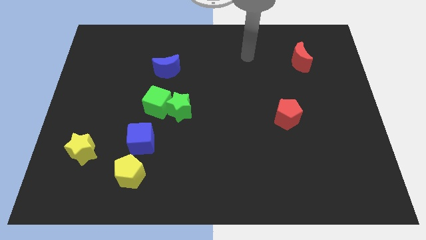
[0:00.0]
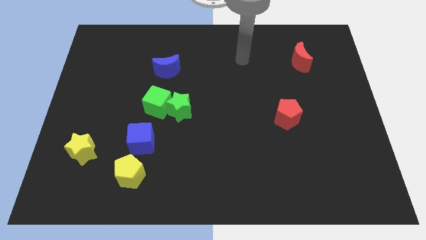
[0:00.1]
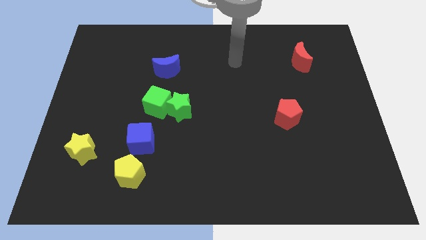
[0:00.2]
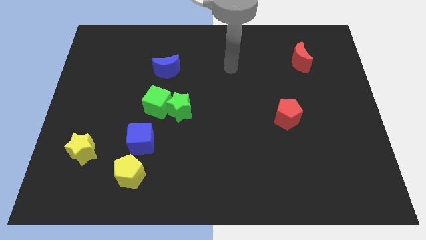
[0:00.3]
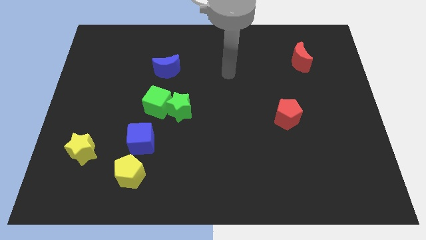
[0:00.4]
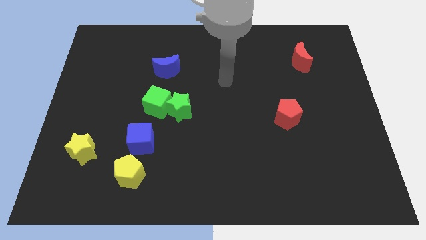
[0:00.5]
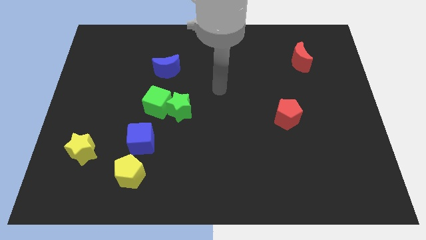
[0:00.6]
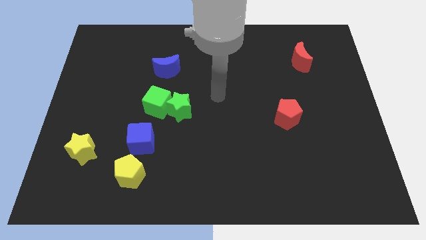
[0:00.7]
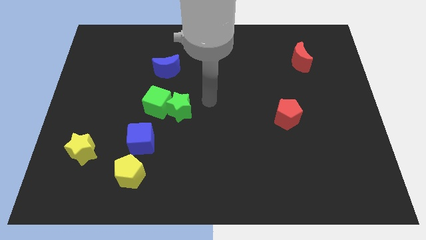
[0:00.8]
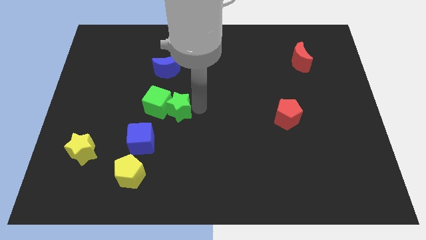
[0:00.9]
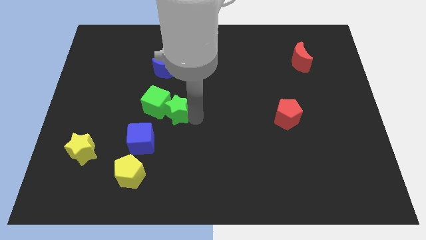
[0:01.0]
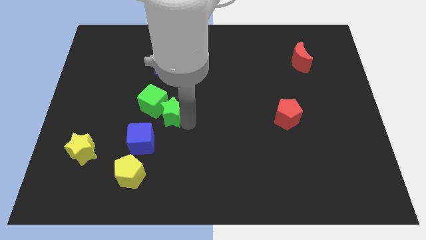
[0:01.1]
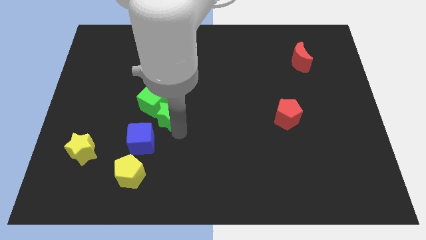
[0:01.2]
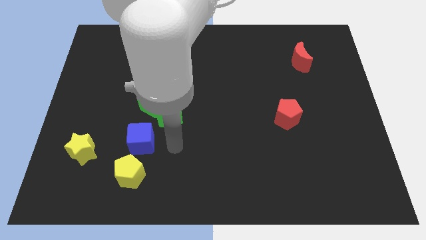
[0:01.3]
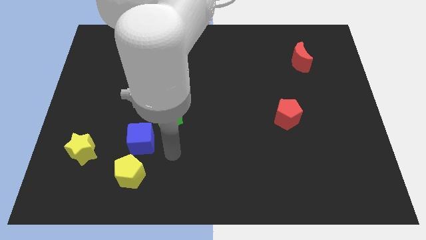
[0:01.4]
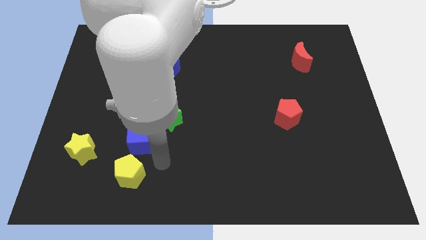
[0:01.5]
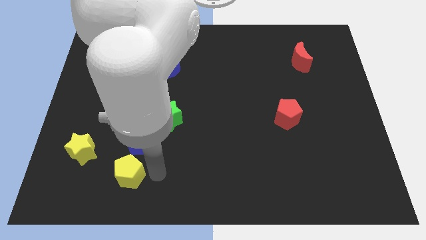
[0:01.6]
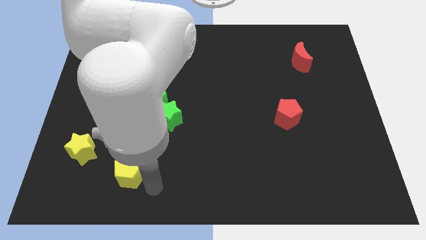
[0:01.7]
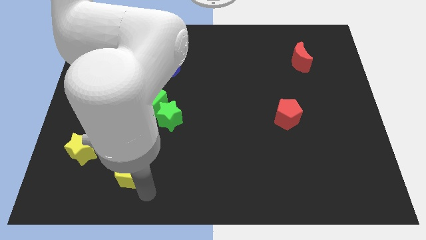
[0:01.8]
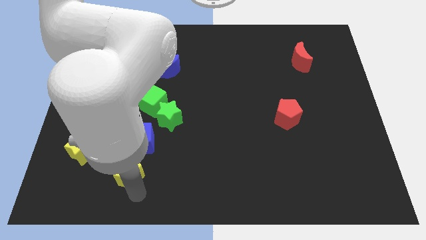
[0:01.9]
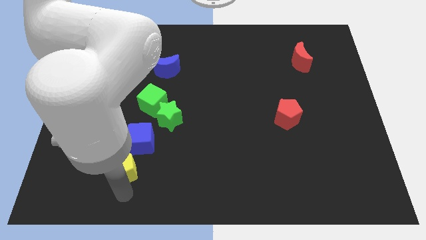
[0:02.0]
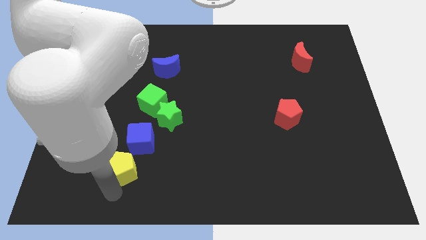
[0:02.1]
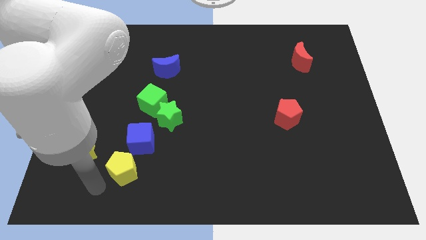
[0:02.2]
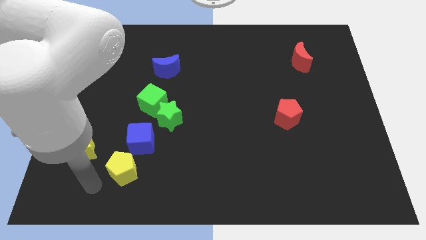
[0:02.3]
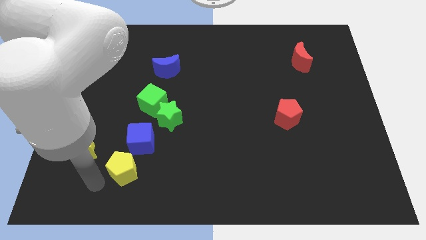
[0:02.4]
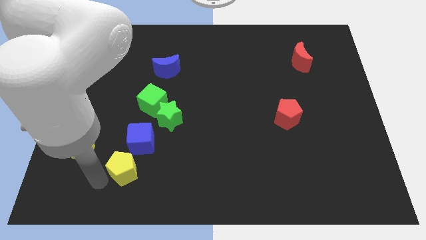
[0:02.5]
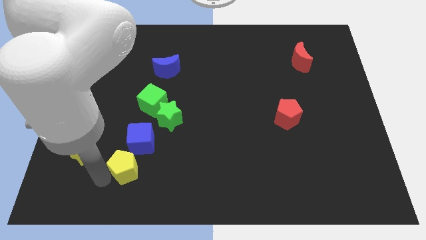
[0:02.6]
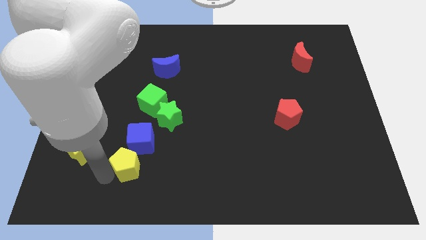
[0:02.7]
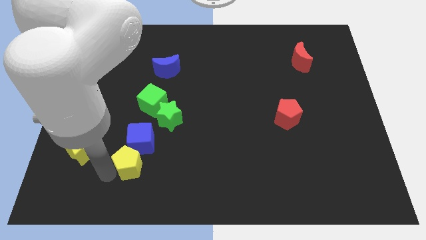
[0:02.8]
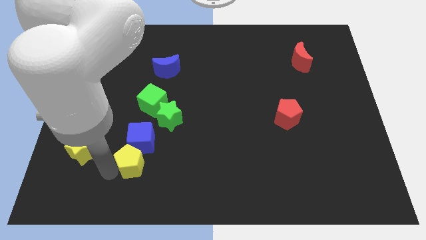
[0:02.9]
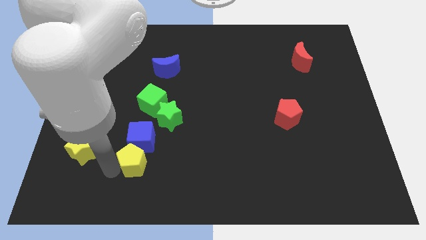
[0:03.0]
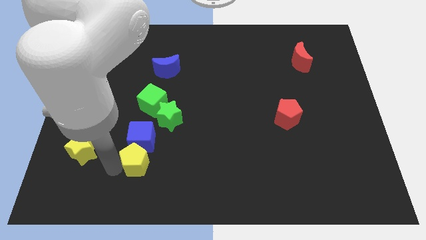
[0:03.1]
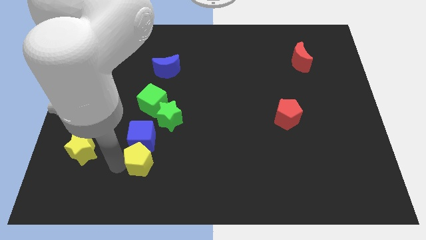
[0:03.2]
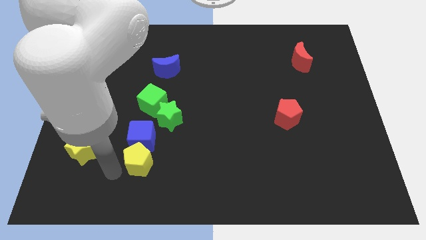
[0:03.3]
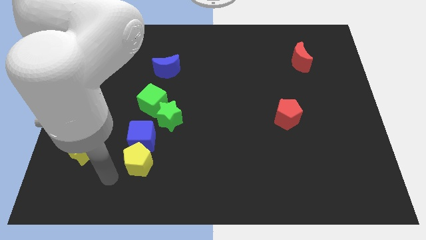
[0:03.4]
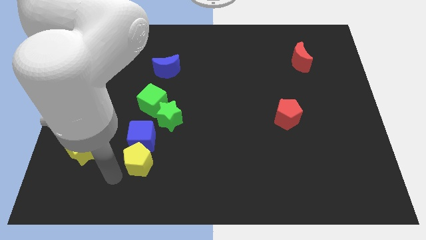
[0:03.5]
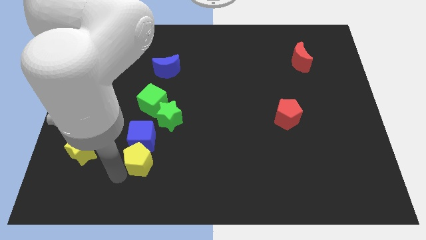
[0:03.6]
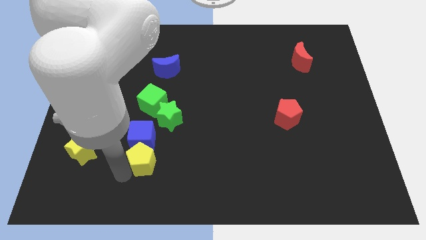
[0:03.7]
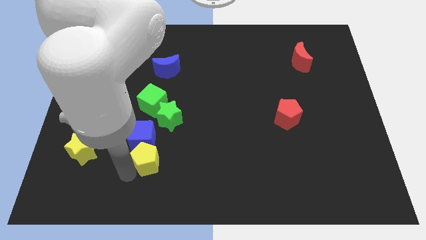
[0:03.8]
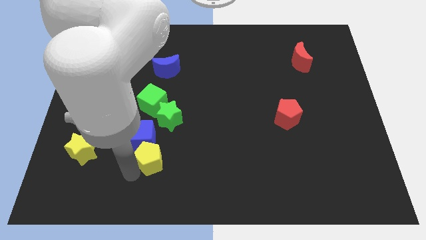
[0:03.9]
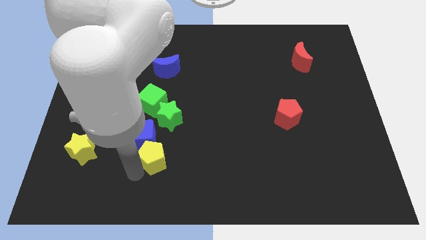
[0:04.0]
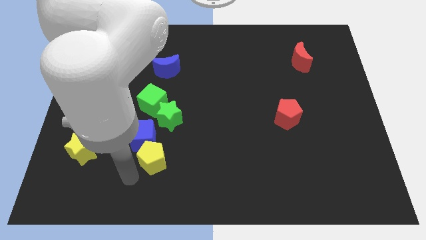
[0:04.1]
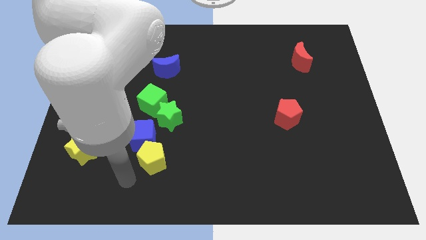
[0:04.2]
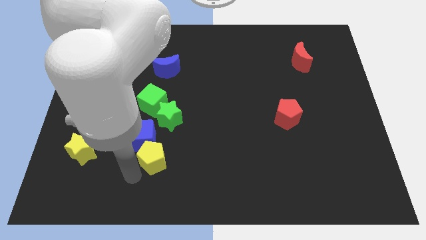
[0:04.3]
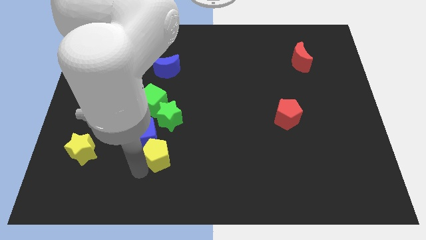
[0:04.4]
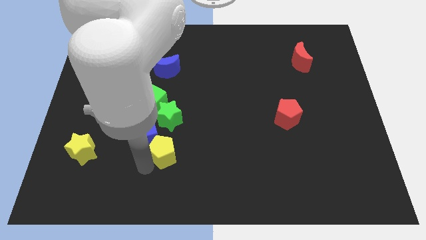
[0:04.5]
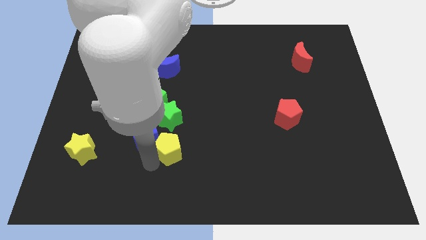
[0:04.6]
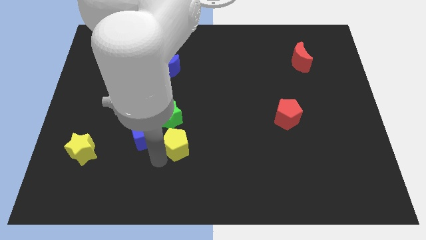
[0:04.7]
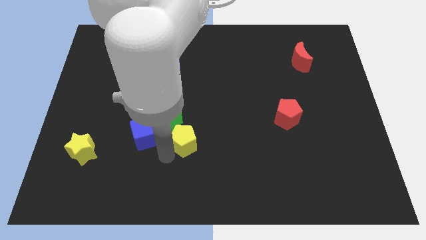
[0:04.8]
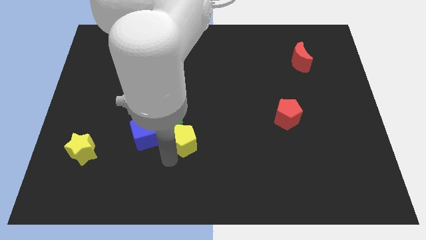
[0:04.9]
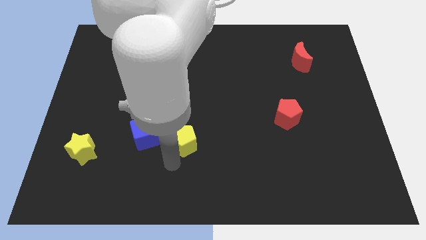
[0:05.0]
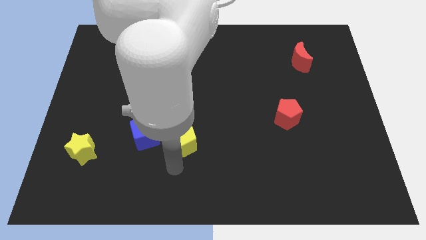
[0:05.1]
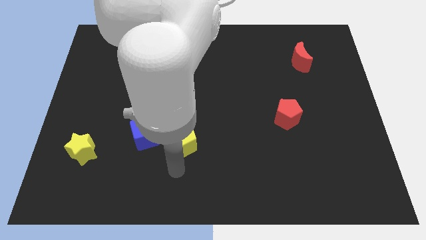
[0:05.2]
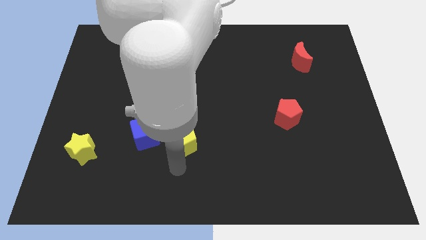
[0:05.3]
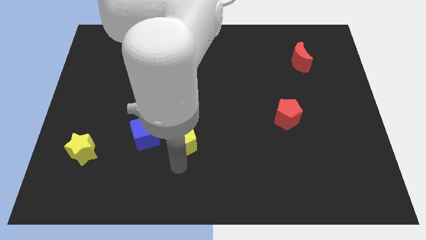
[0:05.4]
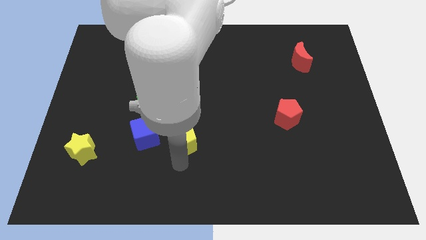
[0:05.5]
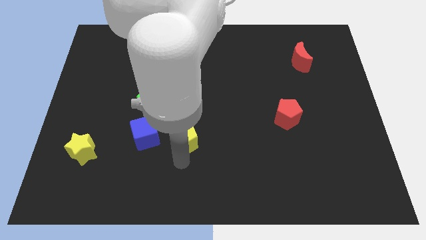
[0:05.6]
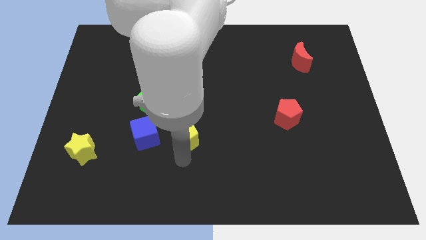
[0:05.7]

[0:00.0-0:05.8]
put the yellow pentagon to the middle of the board

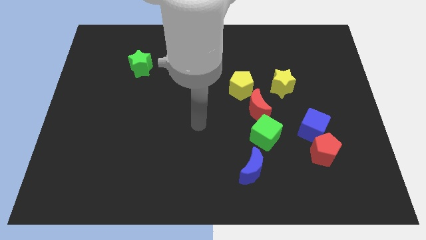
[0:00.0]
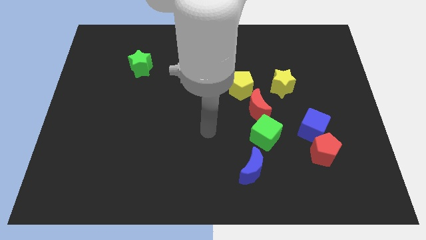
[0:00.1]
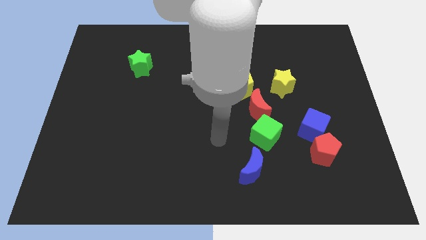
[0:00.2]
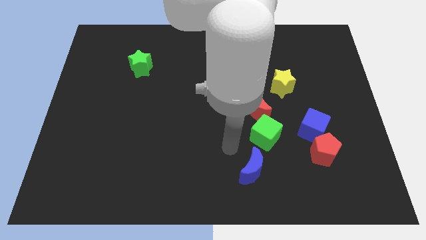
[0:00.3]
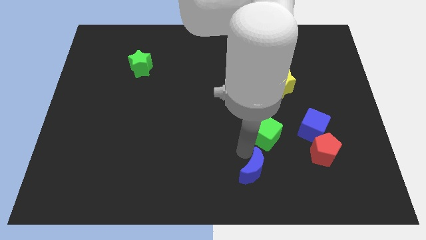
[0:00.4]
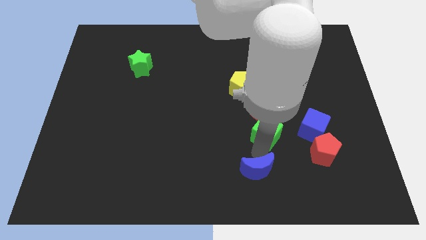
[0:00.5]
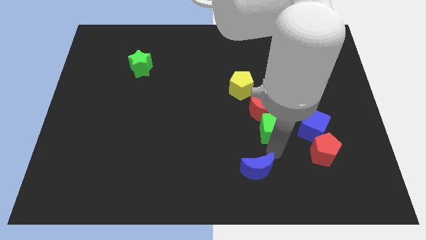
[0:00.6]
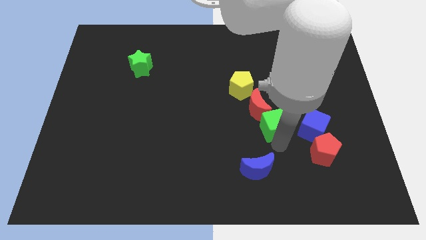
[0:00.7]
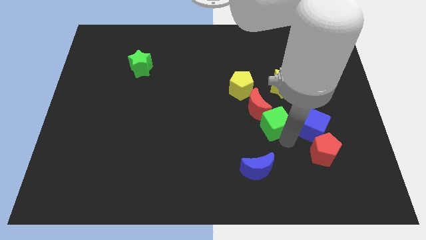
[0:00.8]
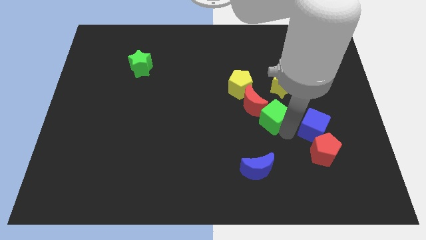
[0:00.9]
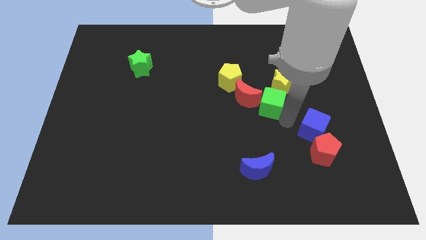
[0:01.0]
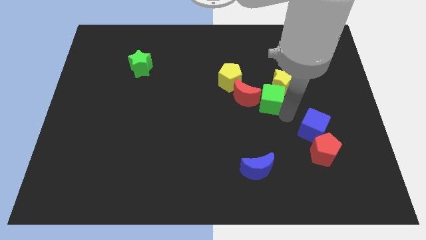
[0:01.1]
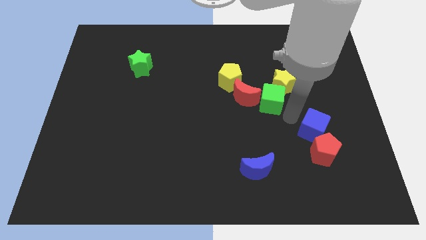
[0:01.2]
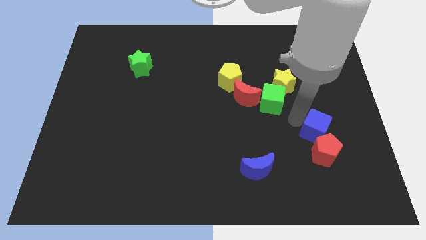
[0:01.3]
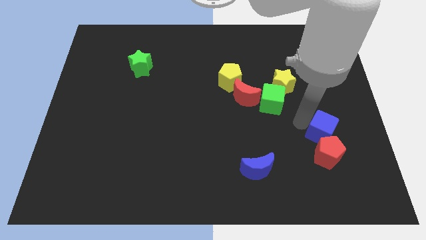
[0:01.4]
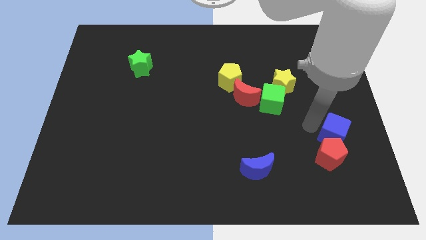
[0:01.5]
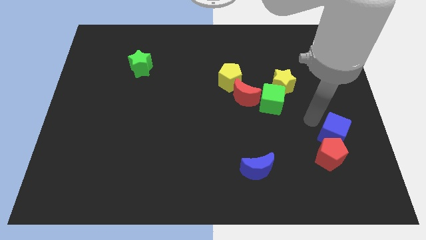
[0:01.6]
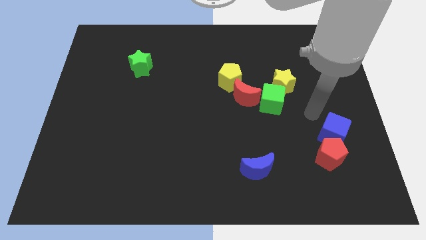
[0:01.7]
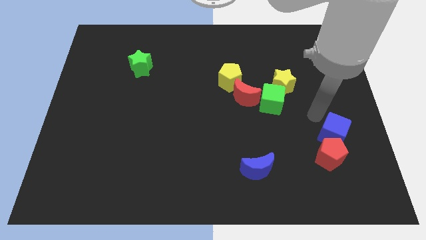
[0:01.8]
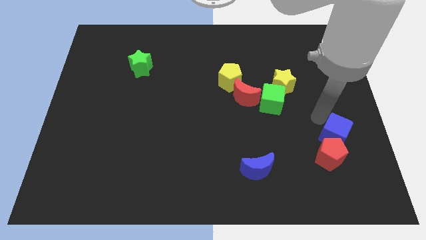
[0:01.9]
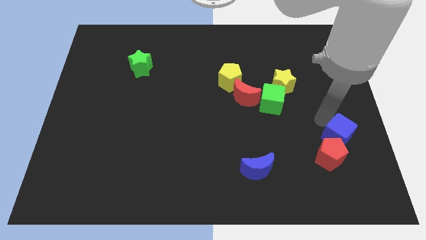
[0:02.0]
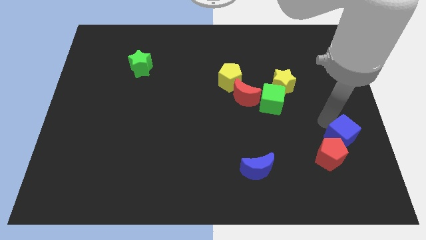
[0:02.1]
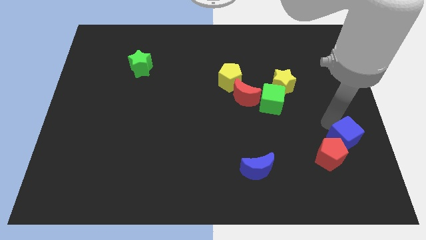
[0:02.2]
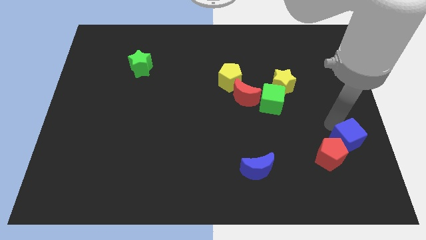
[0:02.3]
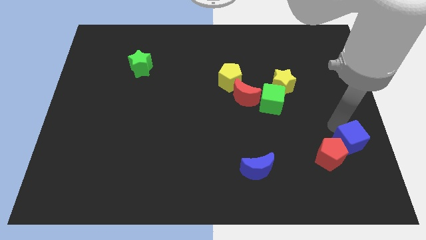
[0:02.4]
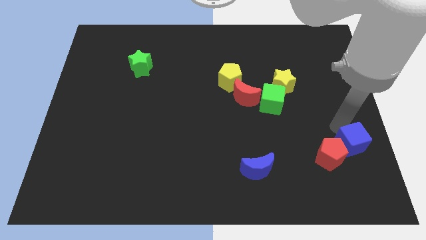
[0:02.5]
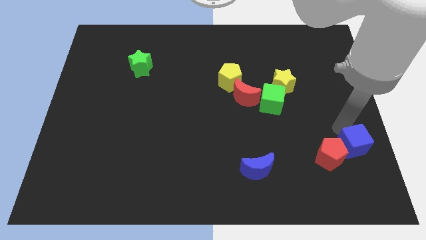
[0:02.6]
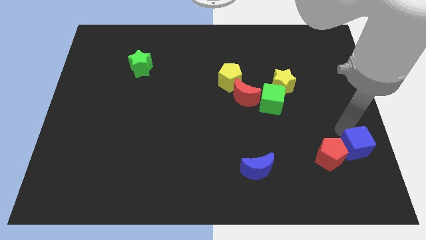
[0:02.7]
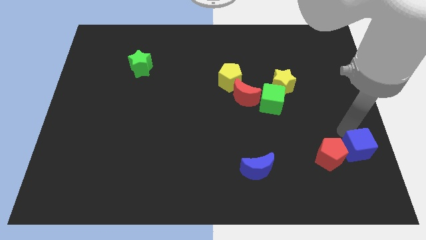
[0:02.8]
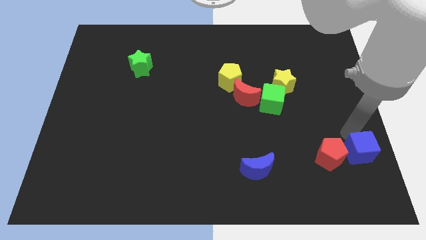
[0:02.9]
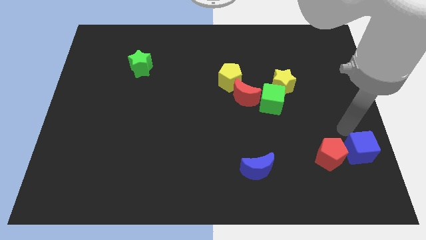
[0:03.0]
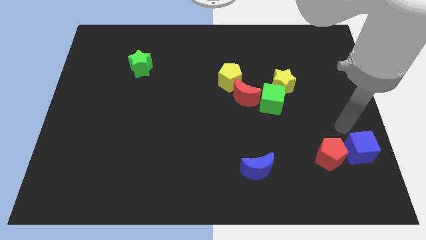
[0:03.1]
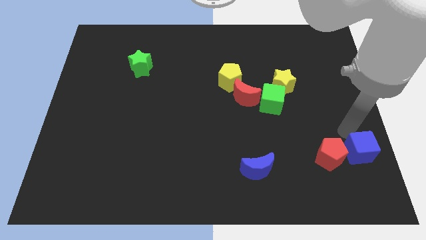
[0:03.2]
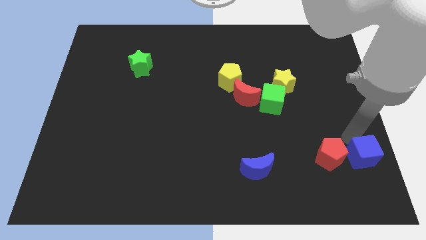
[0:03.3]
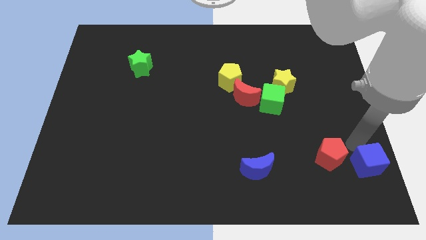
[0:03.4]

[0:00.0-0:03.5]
slide the blue cube to the bottom right of the board
